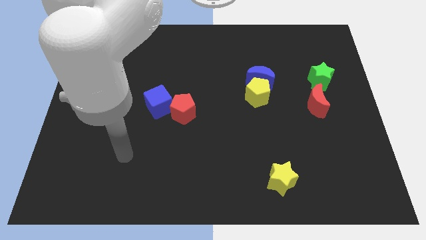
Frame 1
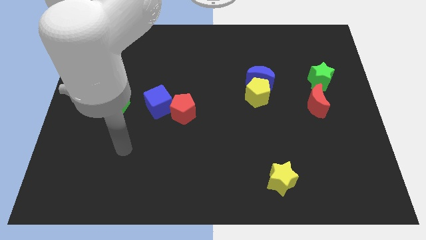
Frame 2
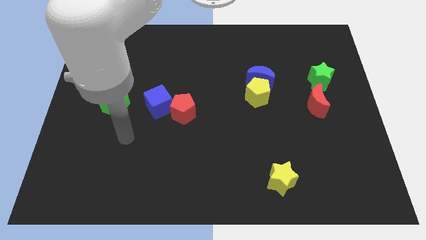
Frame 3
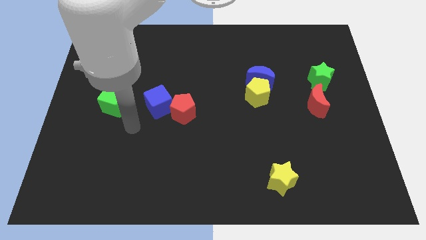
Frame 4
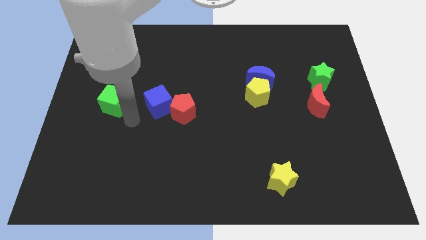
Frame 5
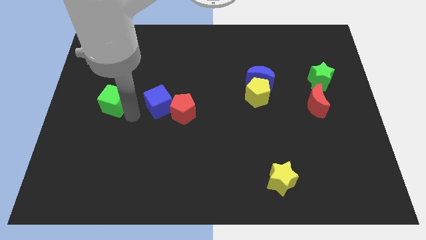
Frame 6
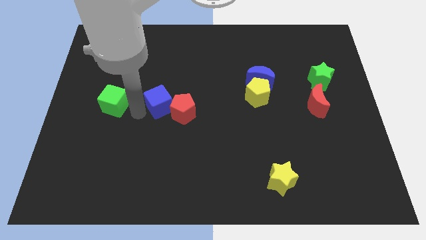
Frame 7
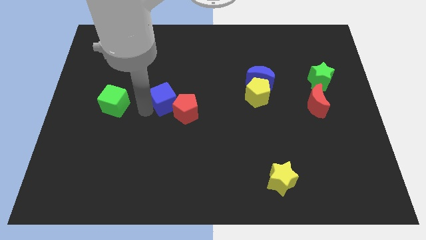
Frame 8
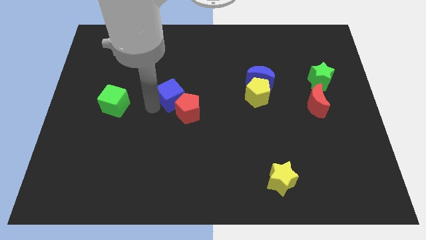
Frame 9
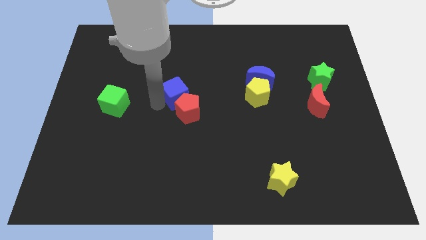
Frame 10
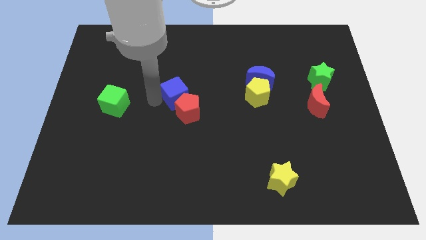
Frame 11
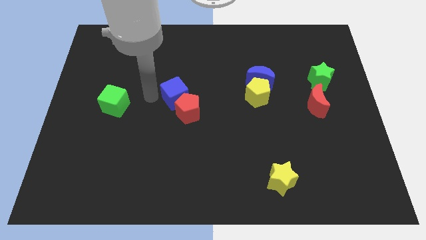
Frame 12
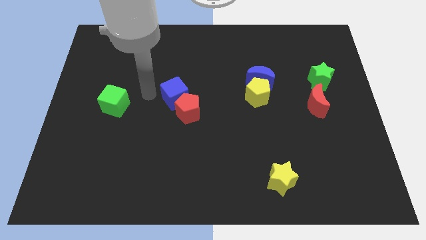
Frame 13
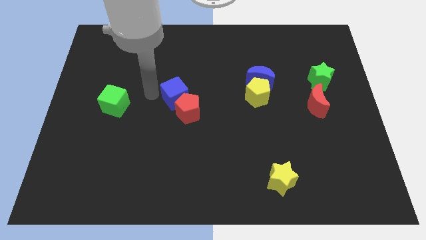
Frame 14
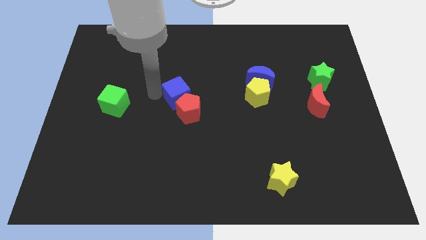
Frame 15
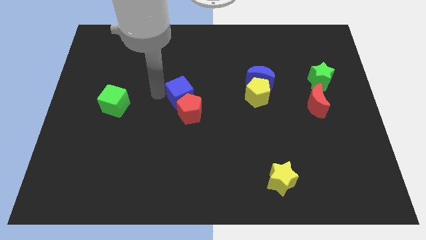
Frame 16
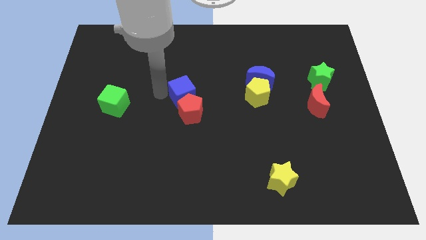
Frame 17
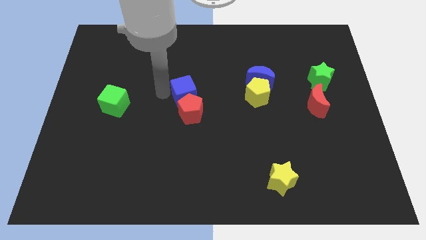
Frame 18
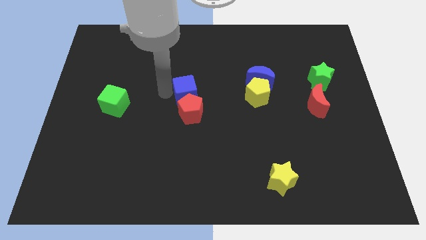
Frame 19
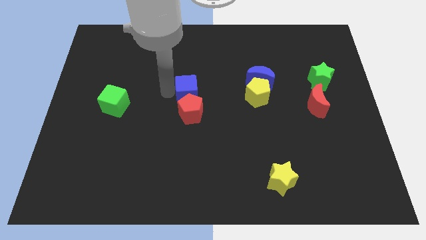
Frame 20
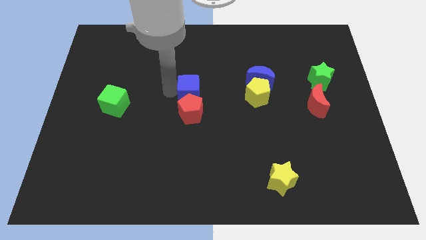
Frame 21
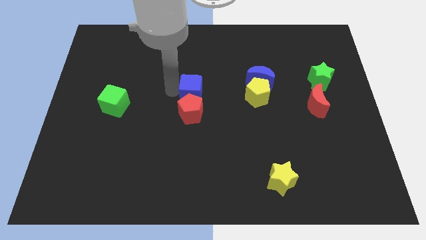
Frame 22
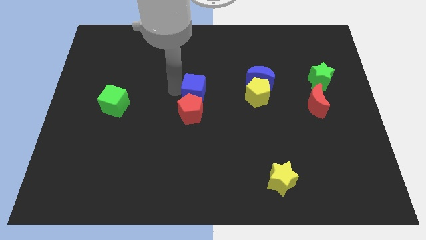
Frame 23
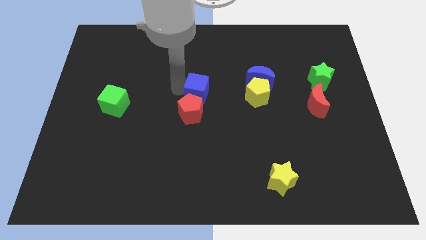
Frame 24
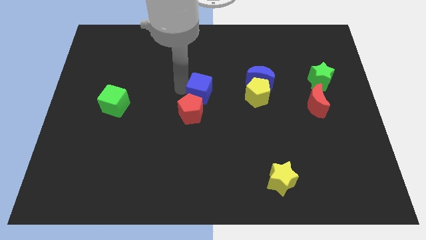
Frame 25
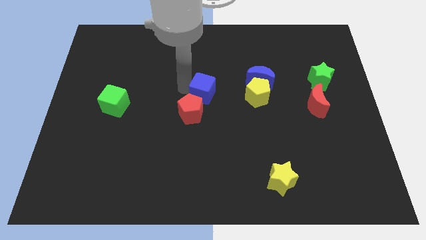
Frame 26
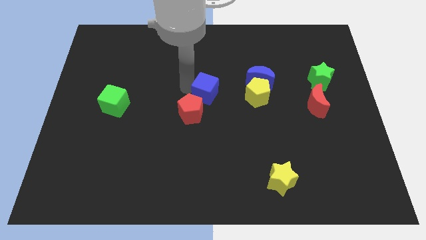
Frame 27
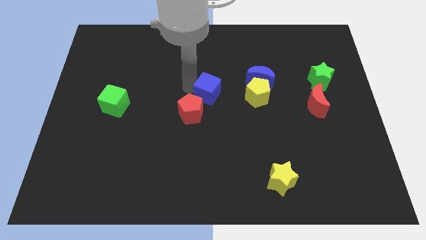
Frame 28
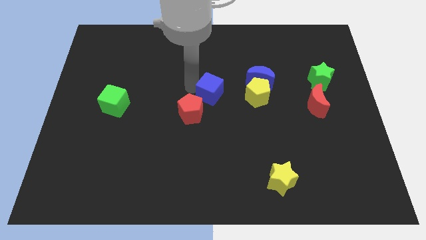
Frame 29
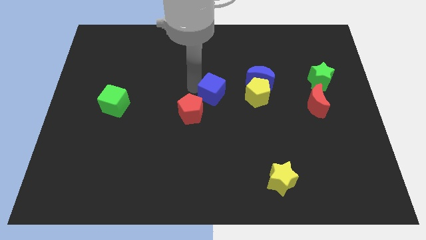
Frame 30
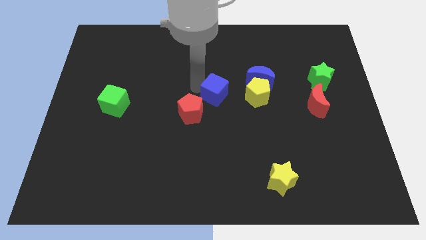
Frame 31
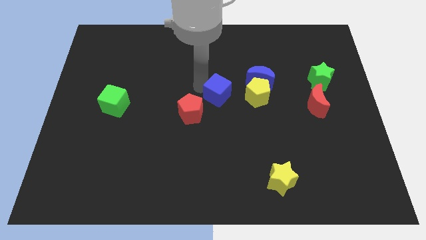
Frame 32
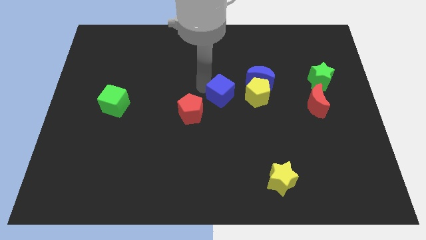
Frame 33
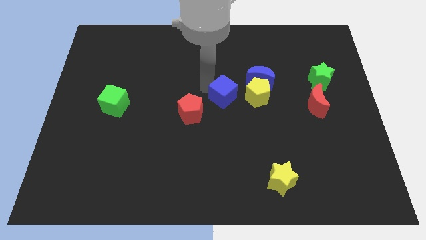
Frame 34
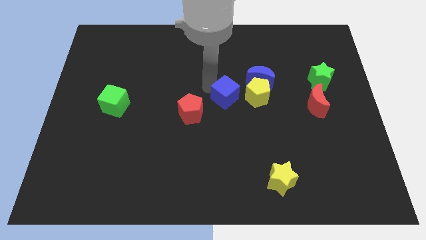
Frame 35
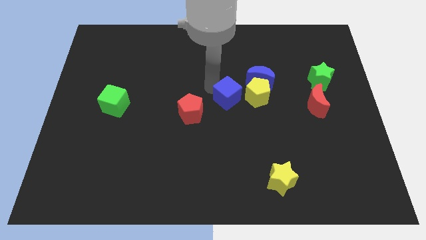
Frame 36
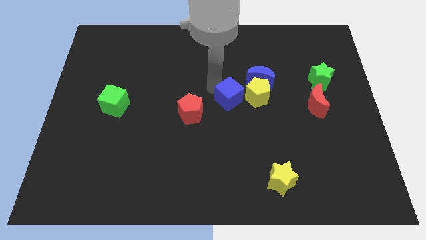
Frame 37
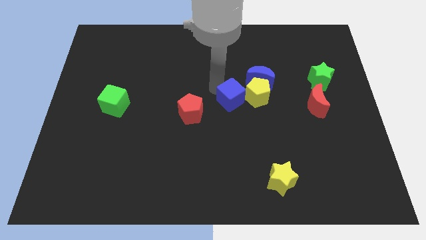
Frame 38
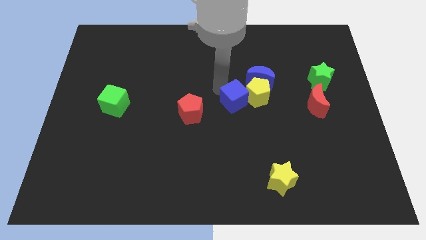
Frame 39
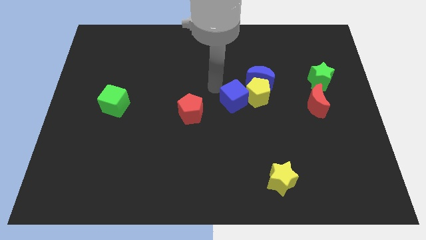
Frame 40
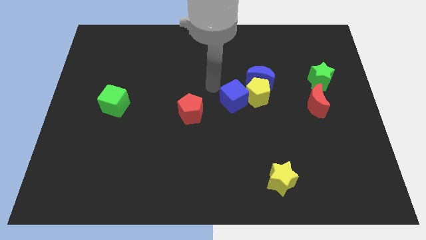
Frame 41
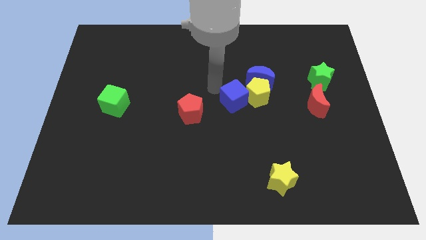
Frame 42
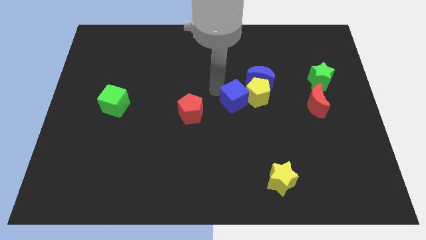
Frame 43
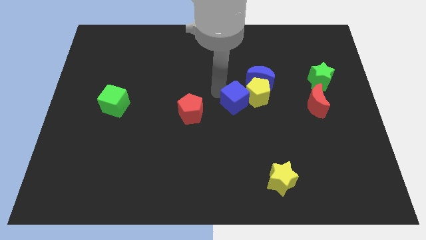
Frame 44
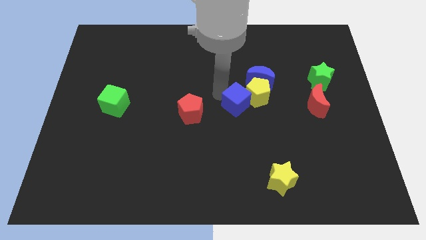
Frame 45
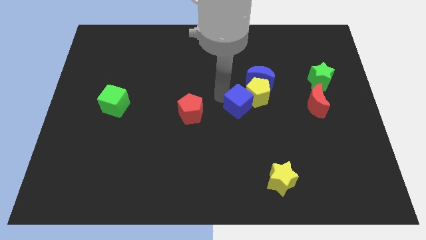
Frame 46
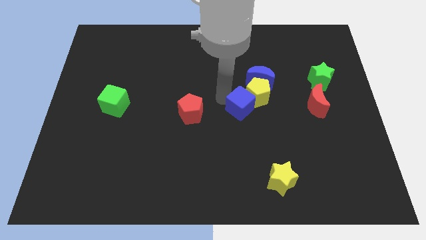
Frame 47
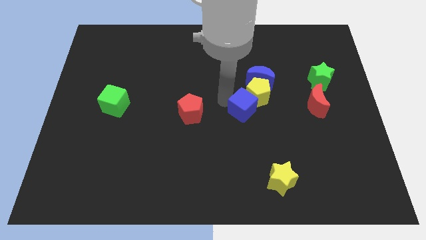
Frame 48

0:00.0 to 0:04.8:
slide the blue cube right

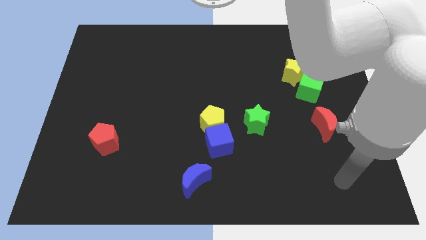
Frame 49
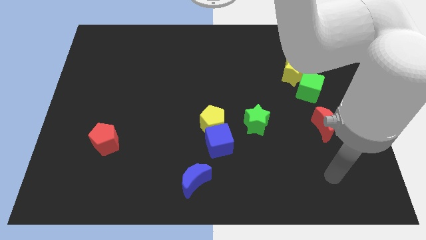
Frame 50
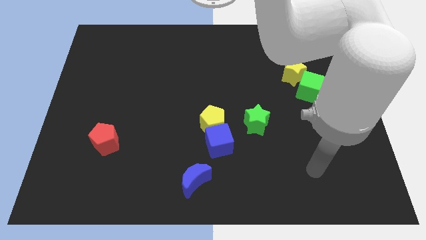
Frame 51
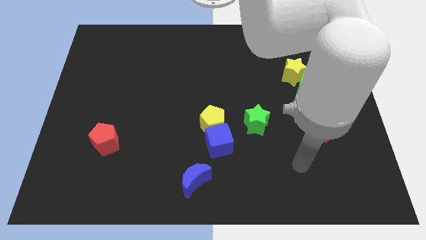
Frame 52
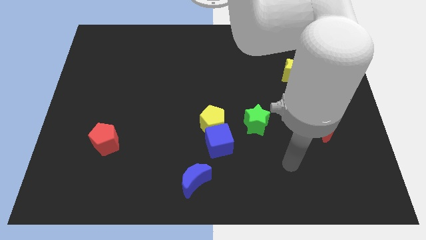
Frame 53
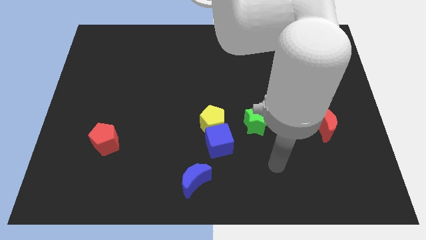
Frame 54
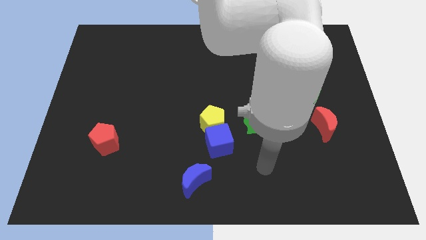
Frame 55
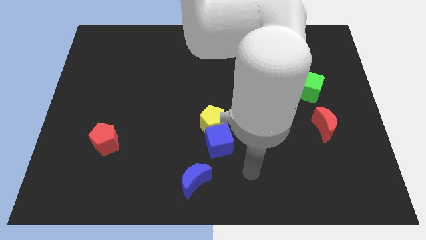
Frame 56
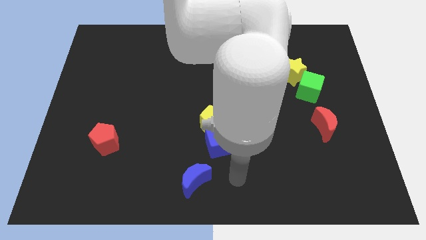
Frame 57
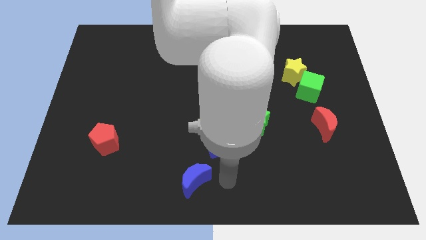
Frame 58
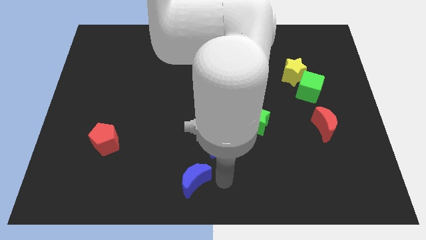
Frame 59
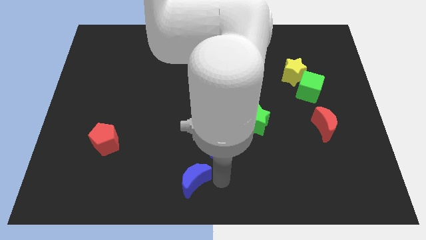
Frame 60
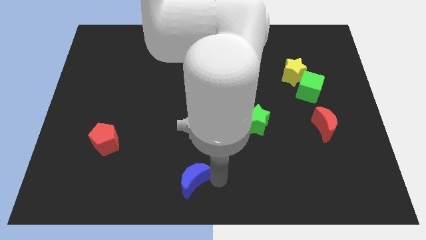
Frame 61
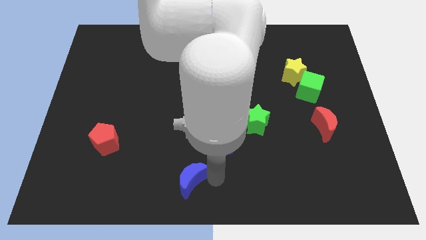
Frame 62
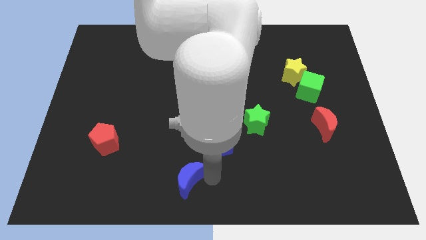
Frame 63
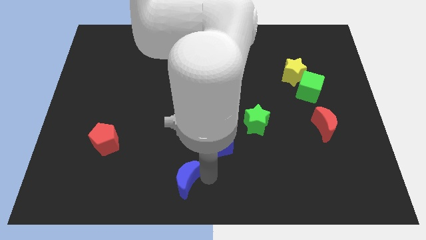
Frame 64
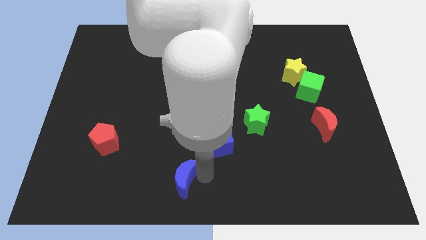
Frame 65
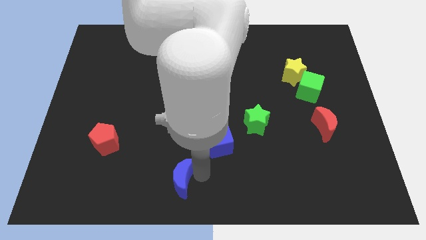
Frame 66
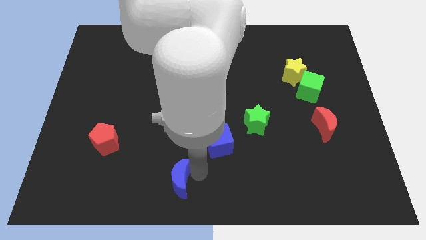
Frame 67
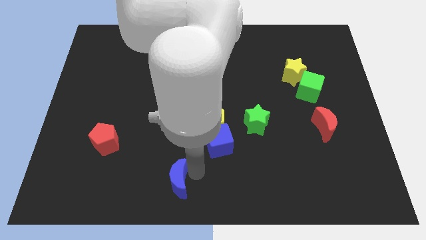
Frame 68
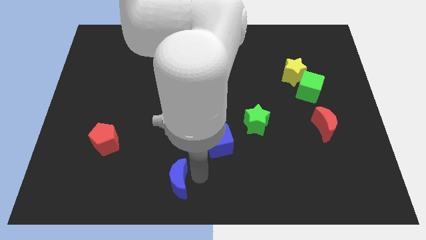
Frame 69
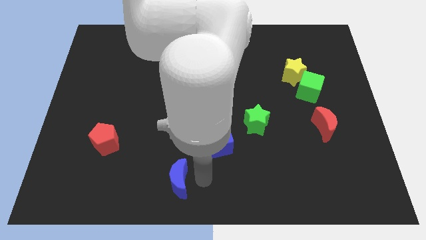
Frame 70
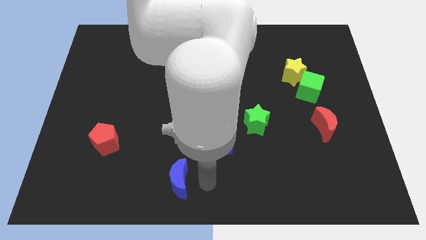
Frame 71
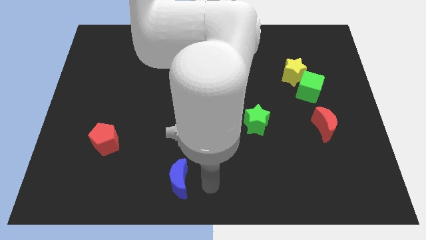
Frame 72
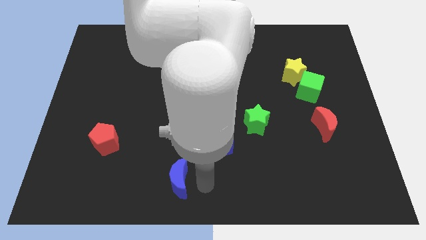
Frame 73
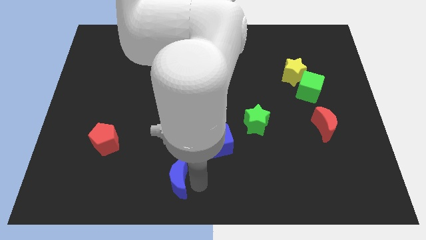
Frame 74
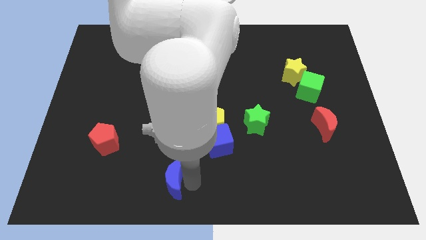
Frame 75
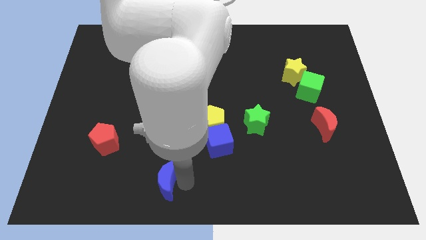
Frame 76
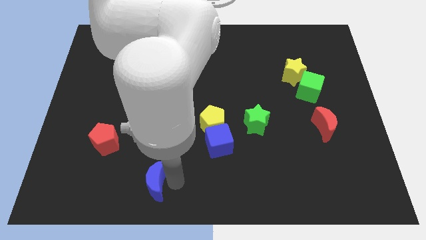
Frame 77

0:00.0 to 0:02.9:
slightly move the blue moon to the left
